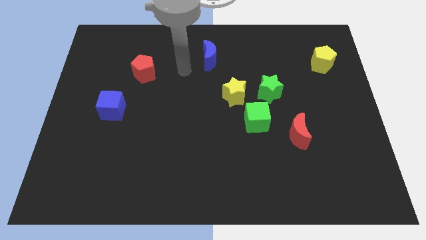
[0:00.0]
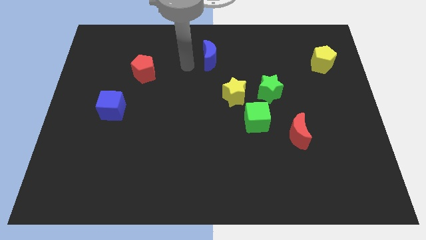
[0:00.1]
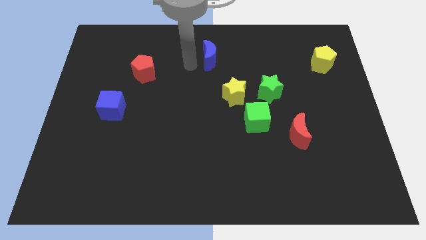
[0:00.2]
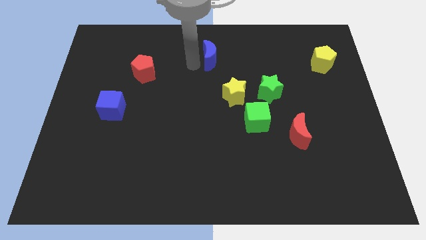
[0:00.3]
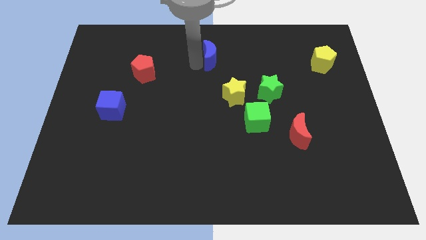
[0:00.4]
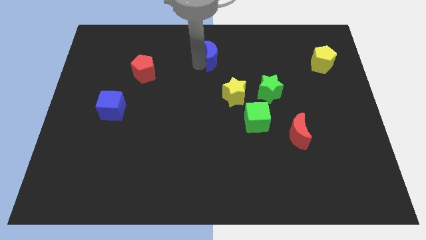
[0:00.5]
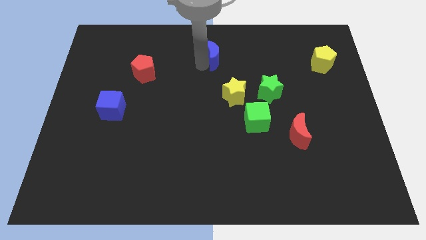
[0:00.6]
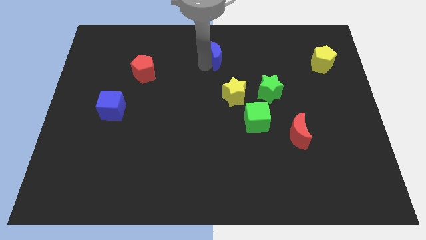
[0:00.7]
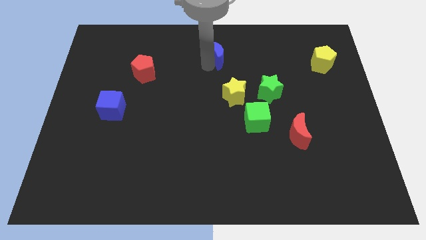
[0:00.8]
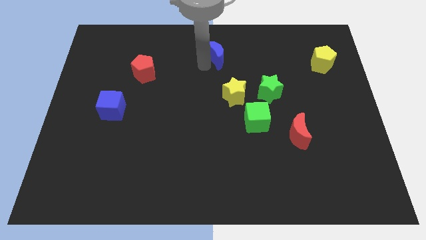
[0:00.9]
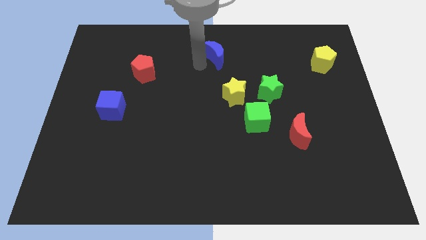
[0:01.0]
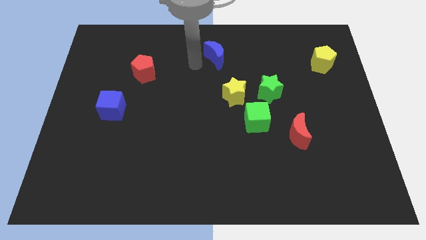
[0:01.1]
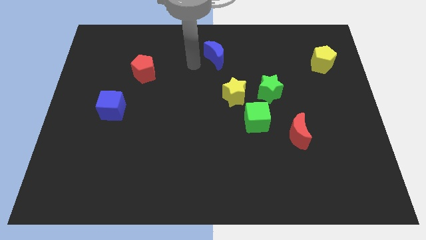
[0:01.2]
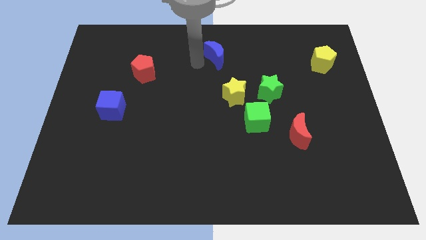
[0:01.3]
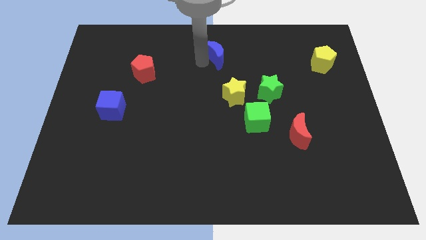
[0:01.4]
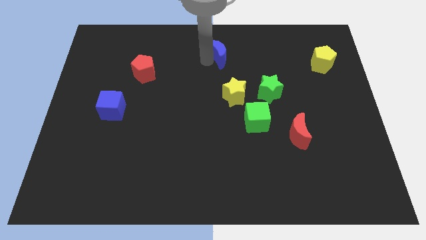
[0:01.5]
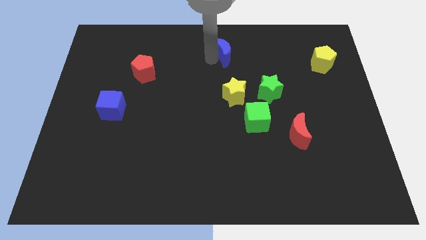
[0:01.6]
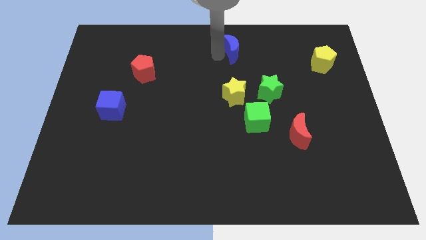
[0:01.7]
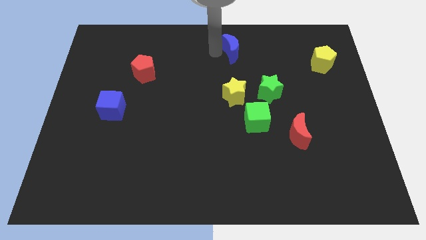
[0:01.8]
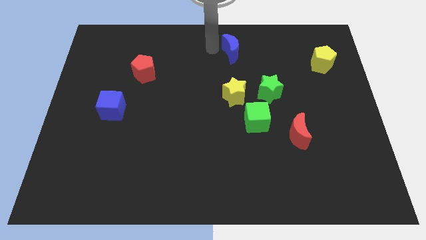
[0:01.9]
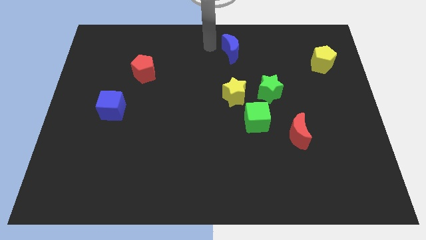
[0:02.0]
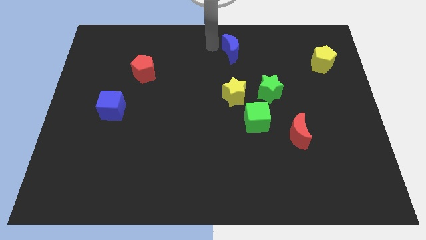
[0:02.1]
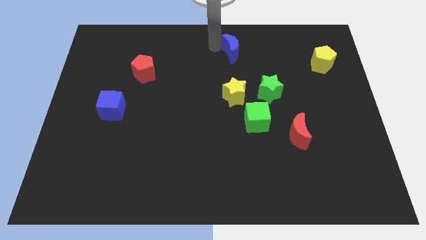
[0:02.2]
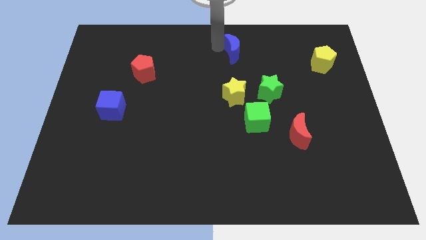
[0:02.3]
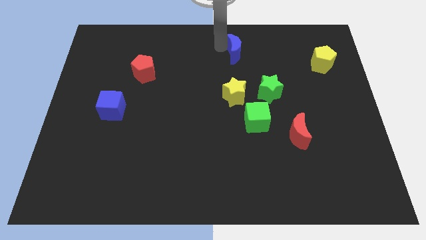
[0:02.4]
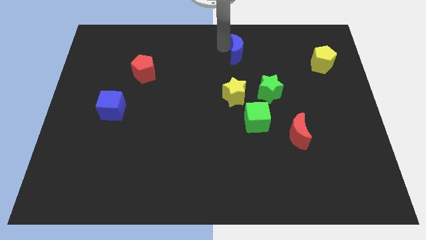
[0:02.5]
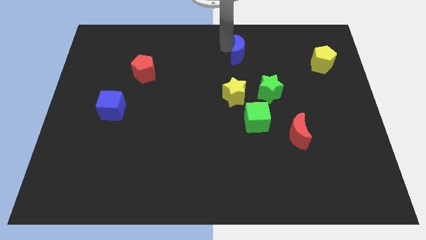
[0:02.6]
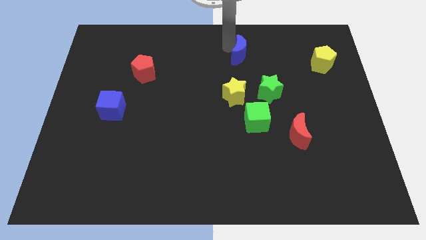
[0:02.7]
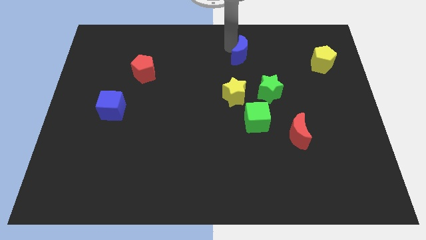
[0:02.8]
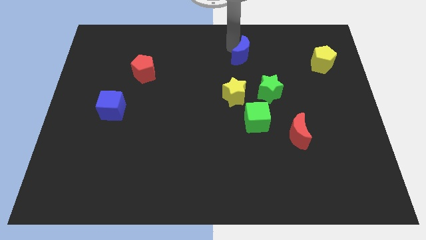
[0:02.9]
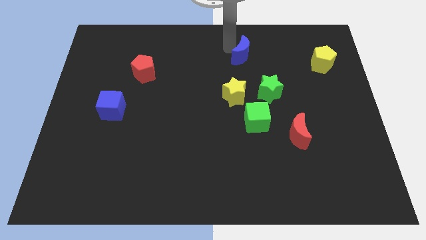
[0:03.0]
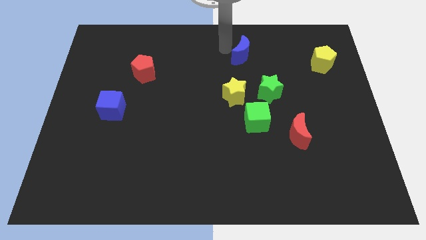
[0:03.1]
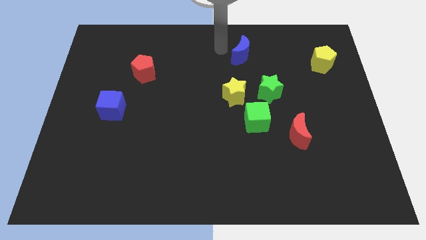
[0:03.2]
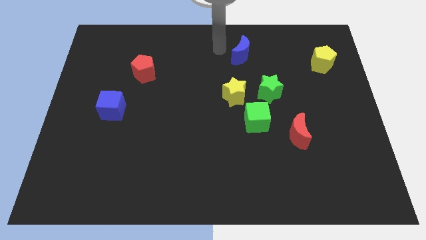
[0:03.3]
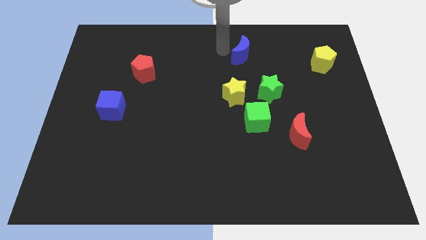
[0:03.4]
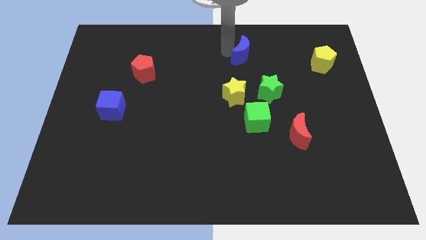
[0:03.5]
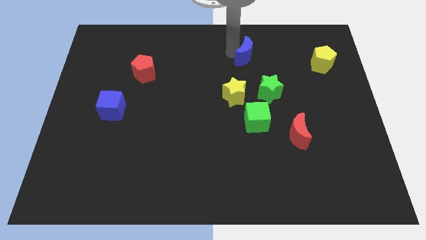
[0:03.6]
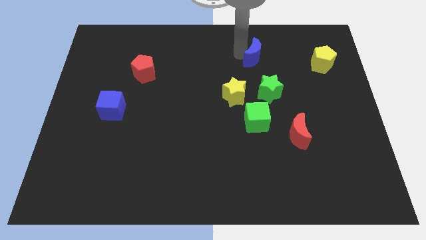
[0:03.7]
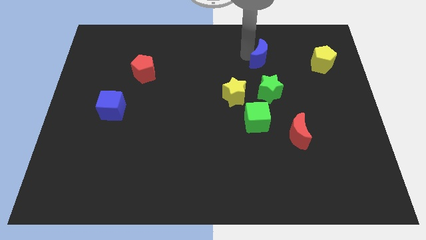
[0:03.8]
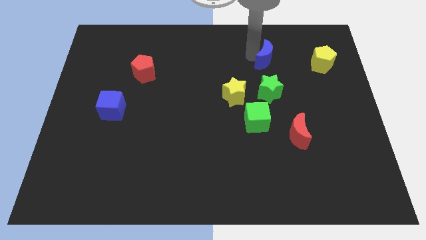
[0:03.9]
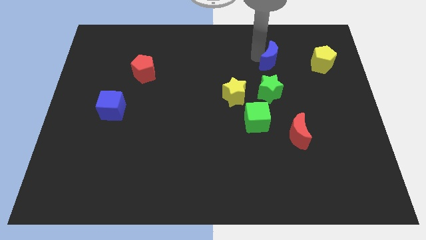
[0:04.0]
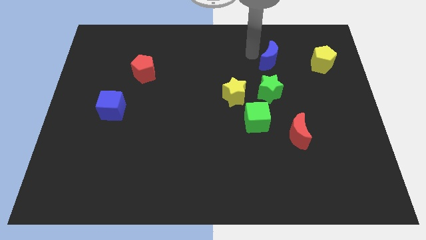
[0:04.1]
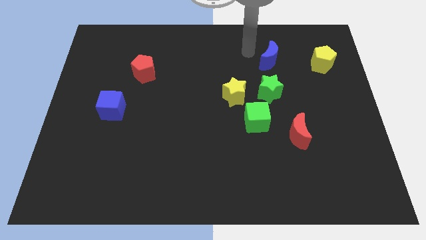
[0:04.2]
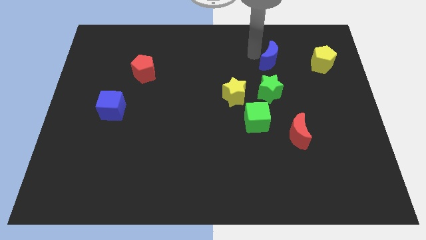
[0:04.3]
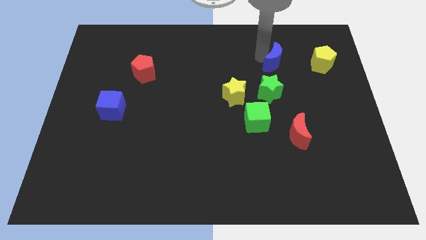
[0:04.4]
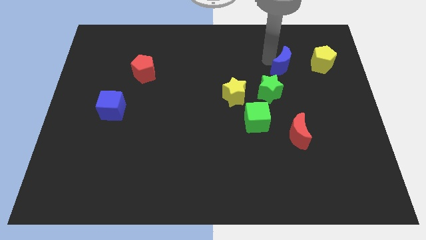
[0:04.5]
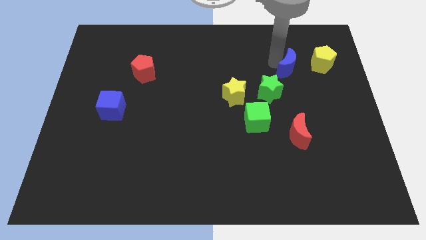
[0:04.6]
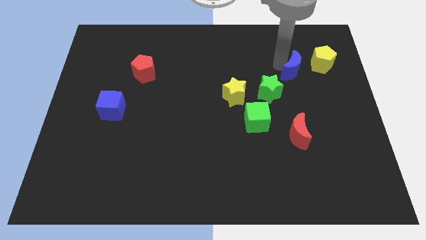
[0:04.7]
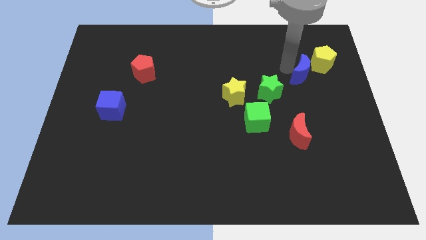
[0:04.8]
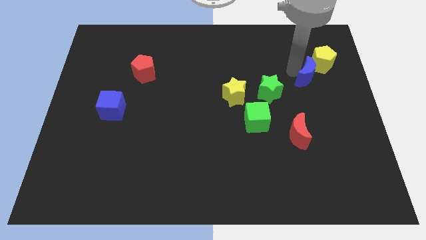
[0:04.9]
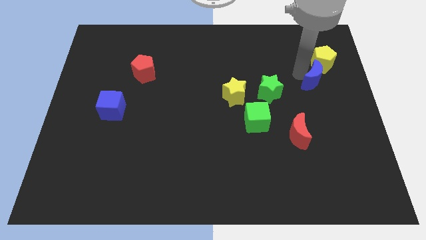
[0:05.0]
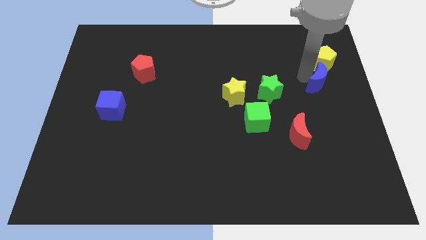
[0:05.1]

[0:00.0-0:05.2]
slide the blue moon to the right side

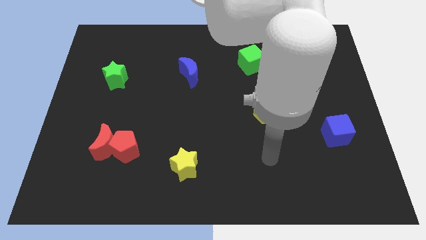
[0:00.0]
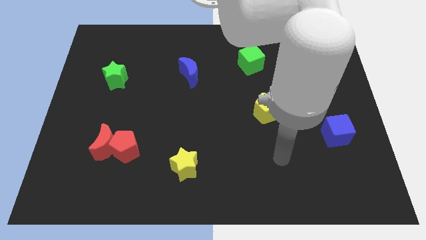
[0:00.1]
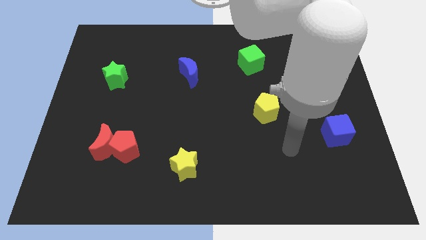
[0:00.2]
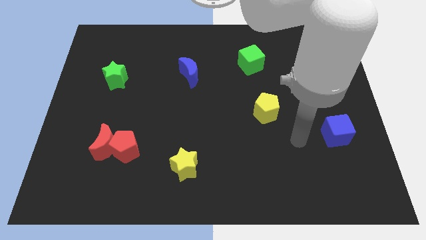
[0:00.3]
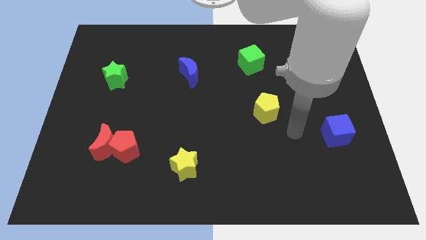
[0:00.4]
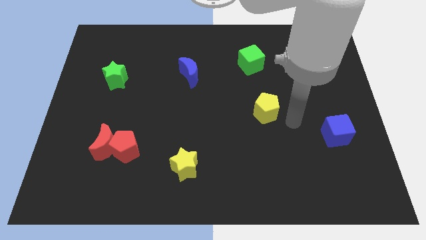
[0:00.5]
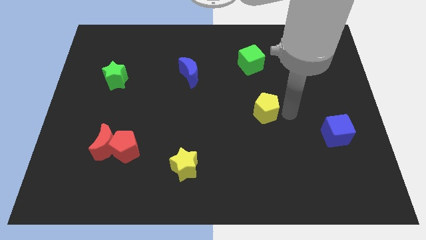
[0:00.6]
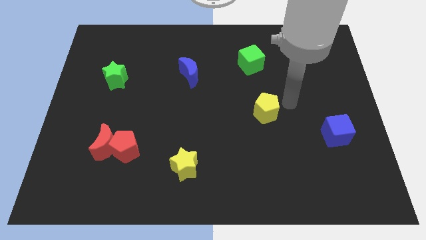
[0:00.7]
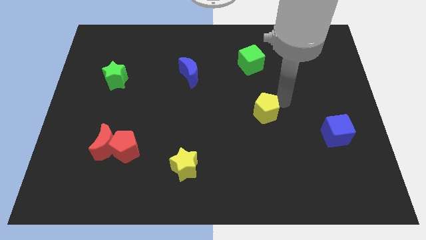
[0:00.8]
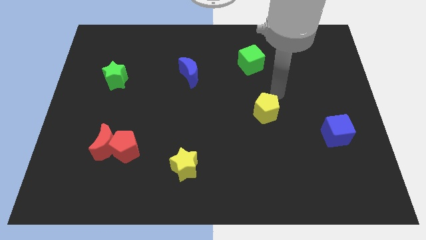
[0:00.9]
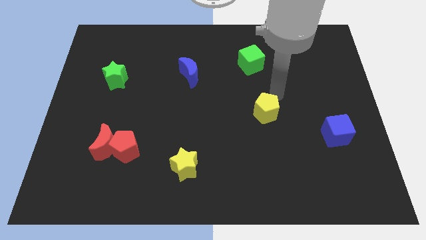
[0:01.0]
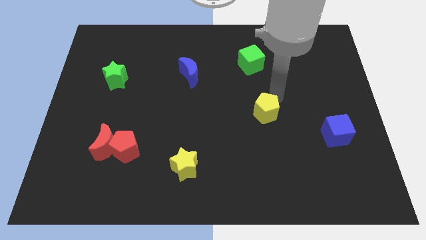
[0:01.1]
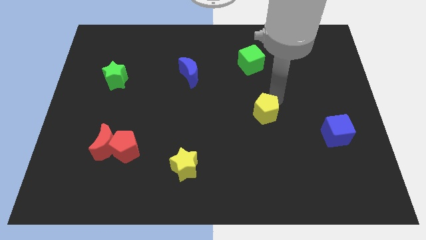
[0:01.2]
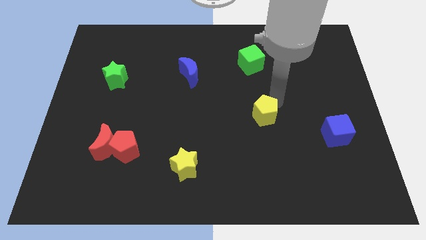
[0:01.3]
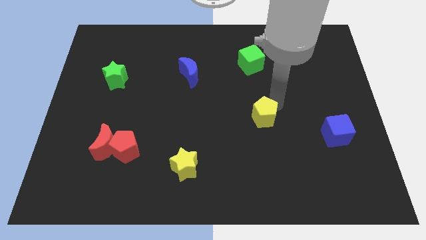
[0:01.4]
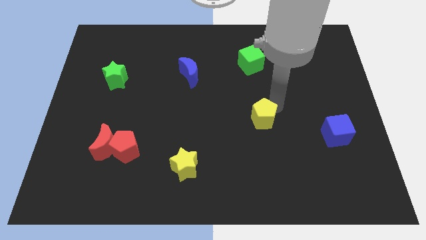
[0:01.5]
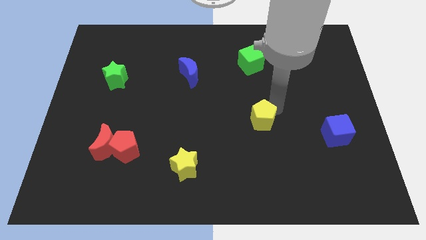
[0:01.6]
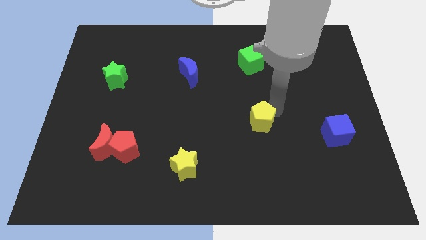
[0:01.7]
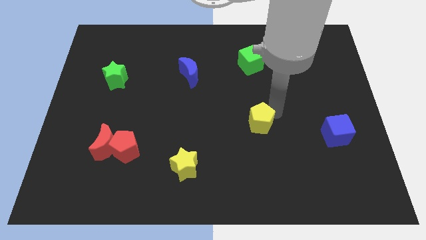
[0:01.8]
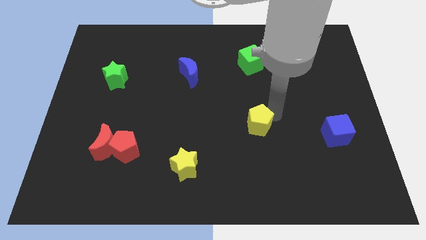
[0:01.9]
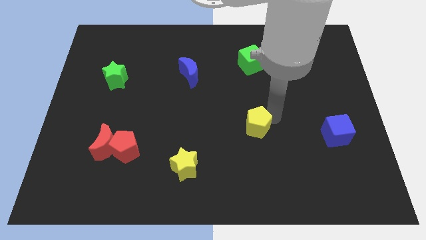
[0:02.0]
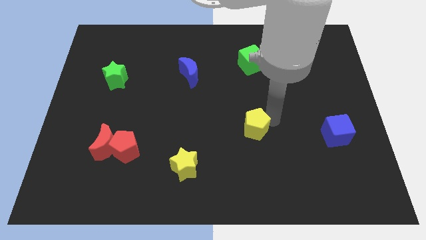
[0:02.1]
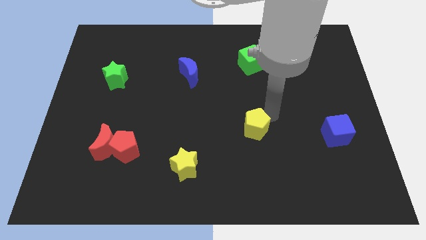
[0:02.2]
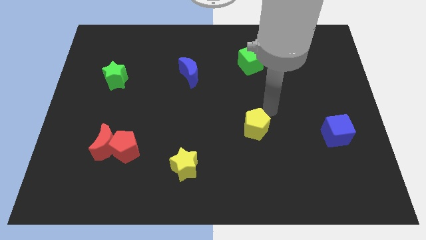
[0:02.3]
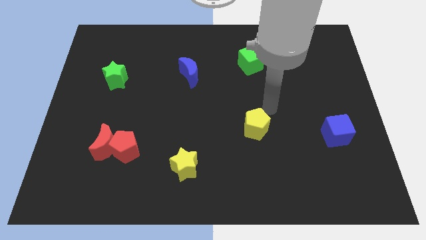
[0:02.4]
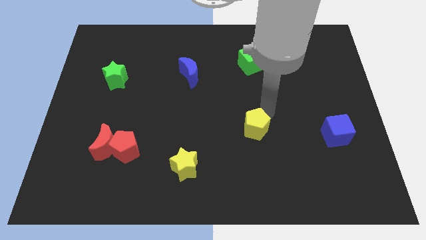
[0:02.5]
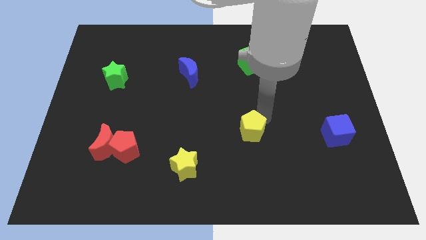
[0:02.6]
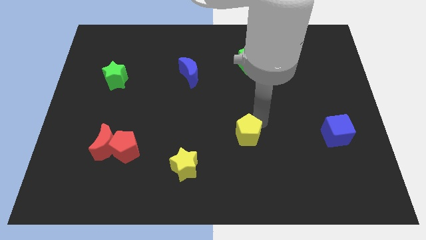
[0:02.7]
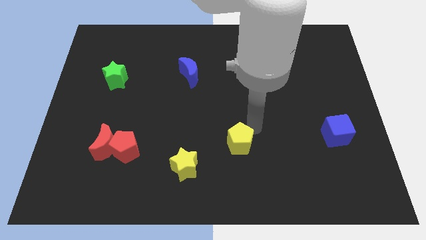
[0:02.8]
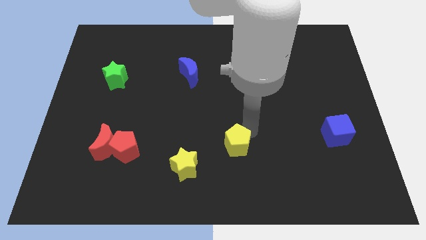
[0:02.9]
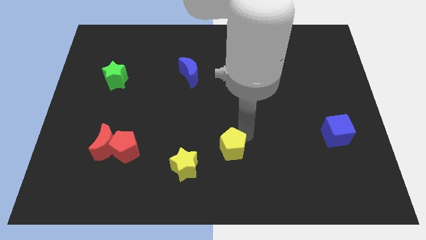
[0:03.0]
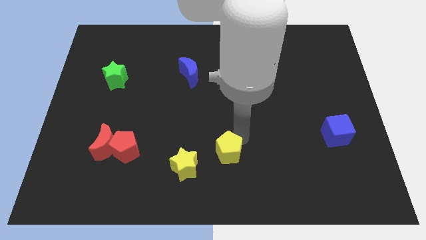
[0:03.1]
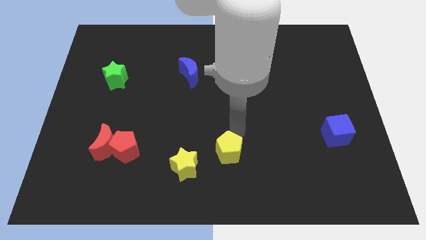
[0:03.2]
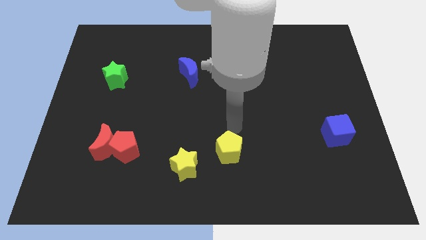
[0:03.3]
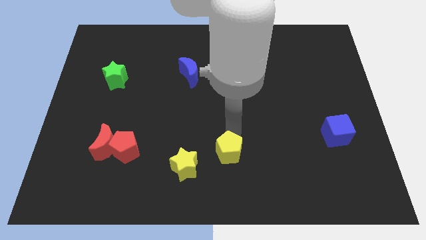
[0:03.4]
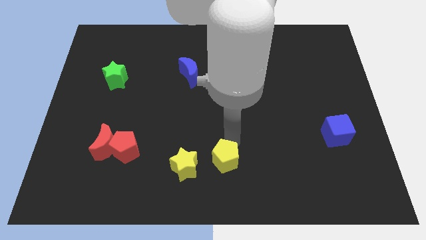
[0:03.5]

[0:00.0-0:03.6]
put the yellow pentagon to the bottom
